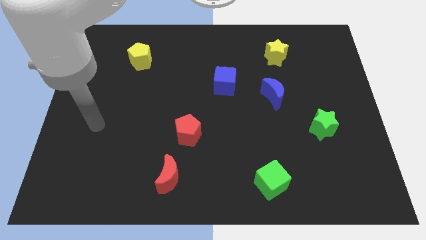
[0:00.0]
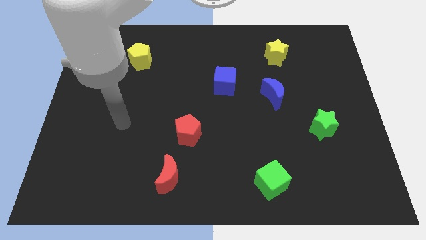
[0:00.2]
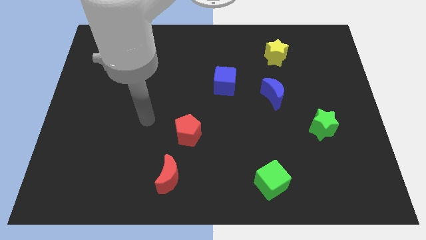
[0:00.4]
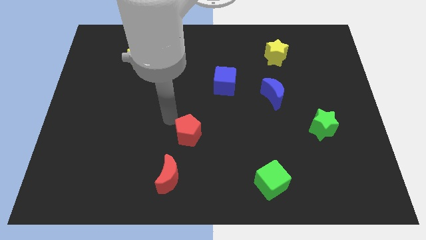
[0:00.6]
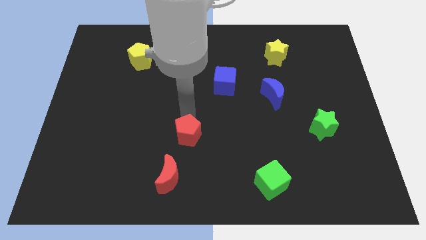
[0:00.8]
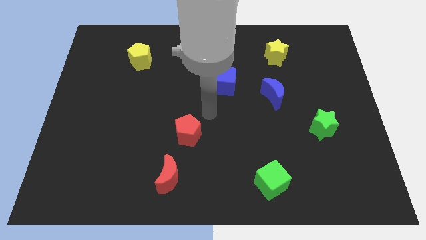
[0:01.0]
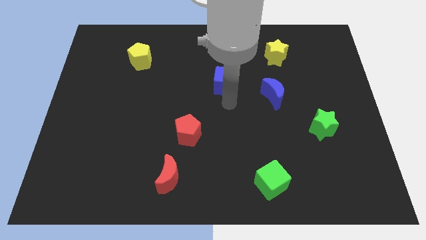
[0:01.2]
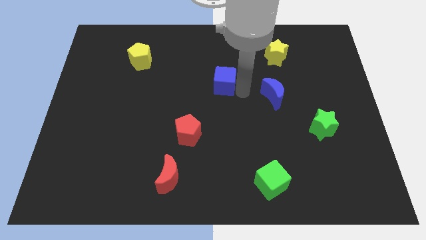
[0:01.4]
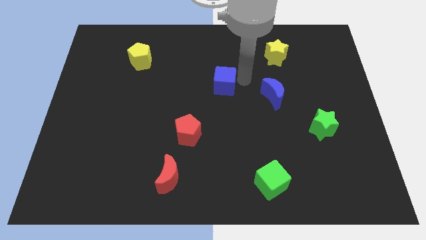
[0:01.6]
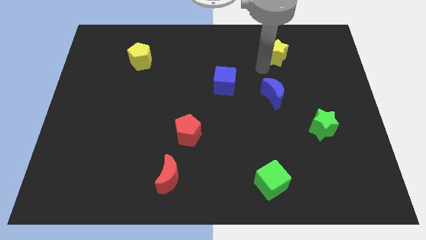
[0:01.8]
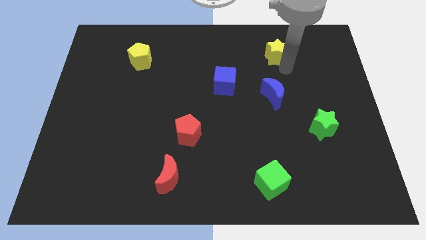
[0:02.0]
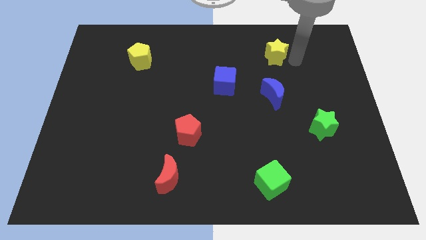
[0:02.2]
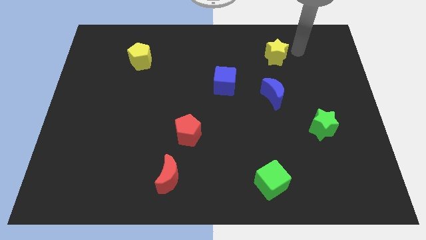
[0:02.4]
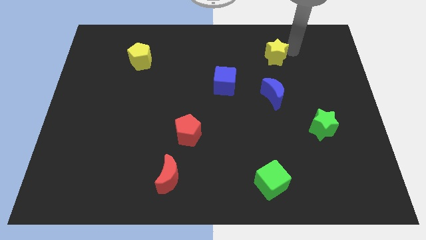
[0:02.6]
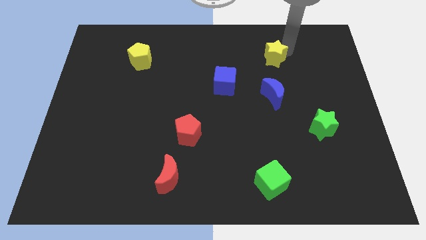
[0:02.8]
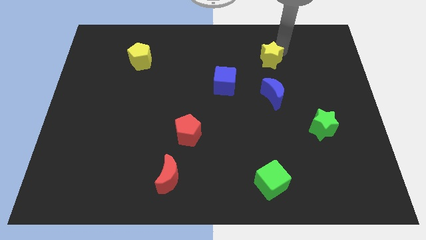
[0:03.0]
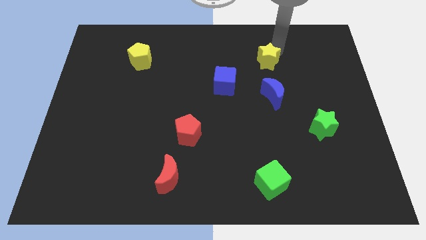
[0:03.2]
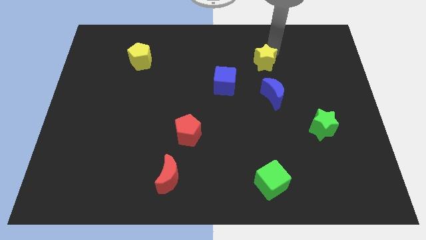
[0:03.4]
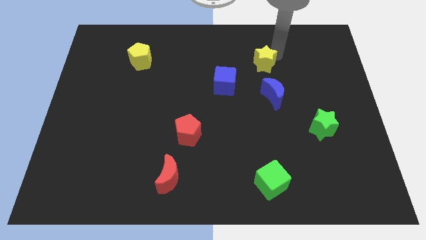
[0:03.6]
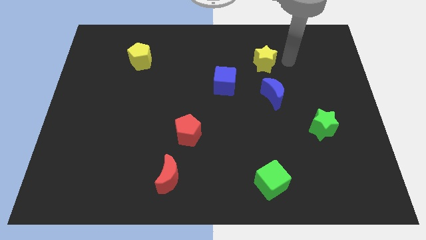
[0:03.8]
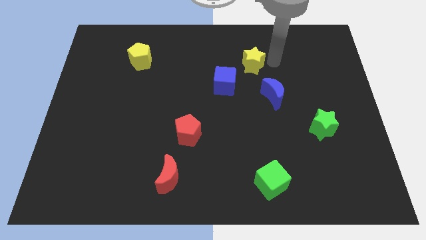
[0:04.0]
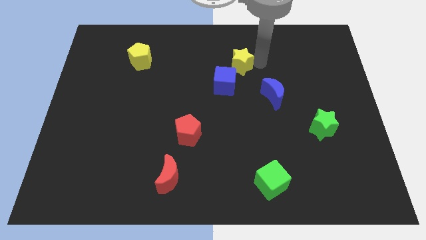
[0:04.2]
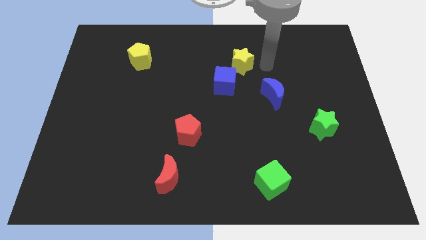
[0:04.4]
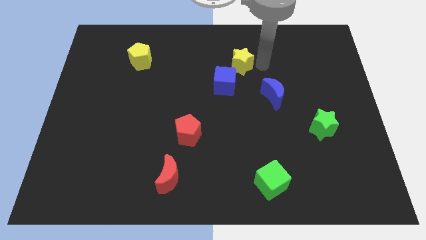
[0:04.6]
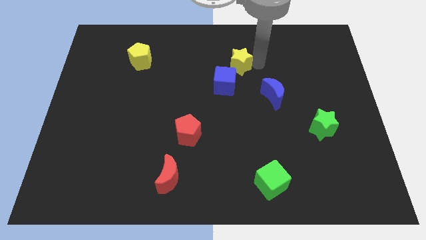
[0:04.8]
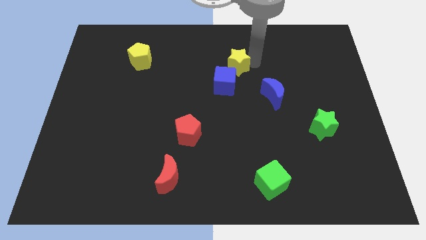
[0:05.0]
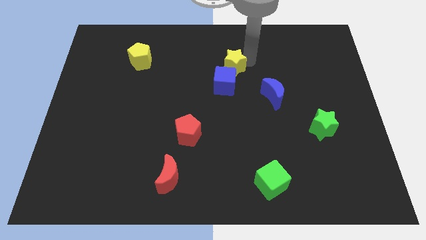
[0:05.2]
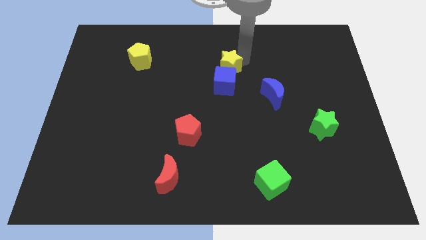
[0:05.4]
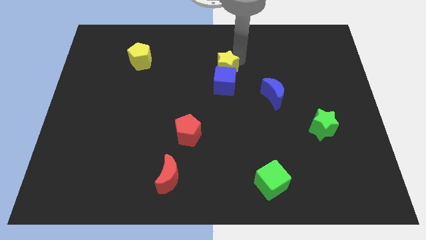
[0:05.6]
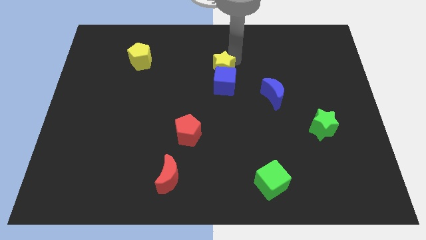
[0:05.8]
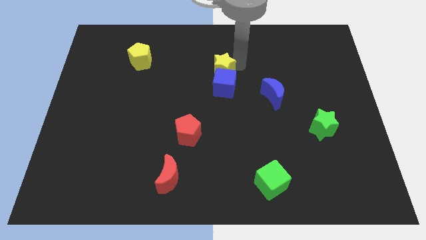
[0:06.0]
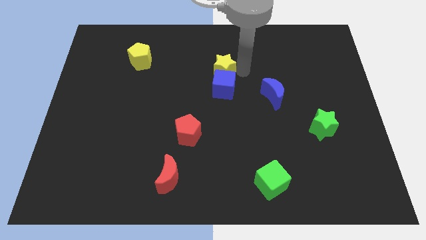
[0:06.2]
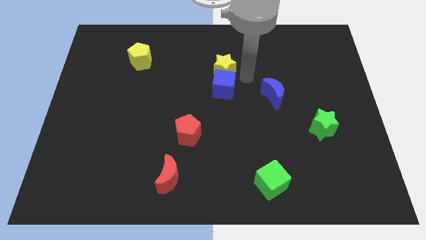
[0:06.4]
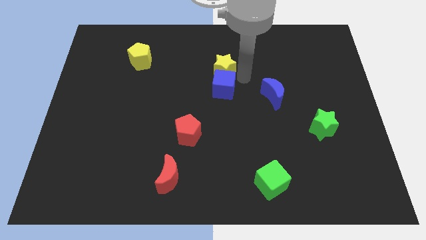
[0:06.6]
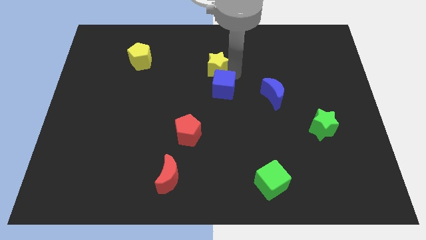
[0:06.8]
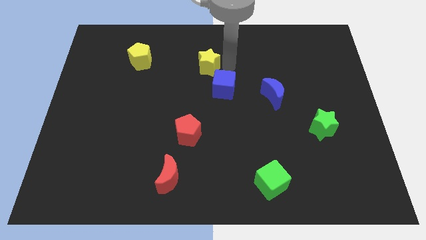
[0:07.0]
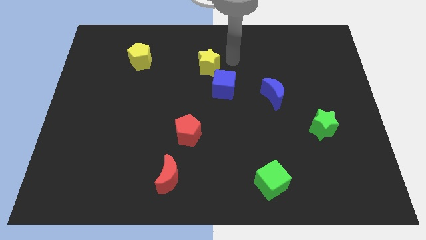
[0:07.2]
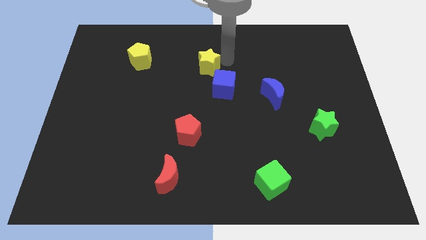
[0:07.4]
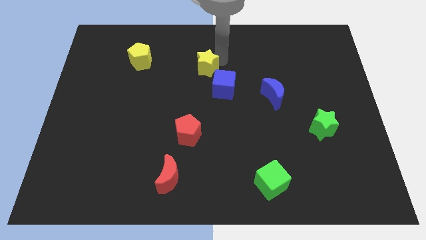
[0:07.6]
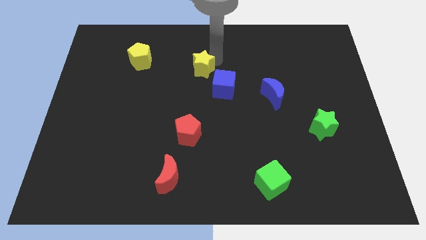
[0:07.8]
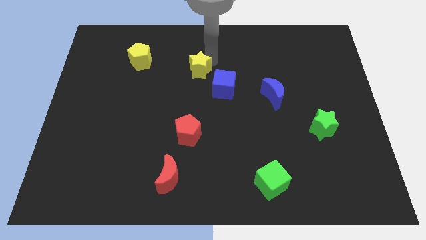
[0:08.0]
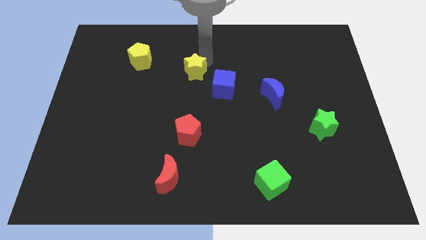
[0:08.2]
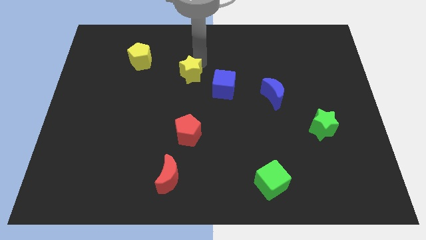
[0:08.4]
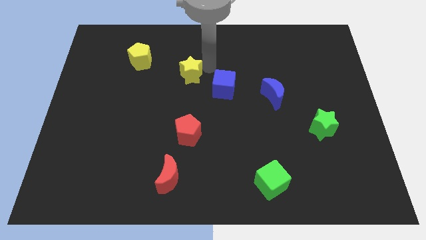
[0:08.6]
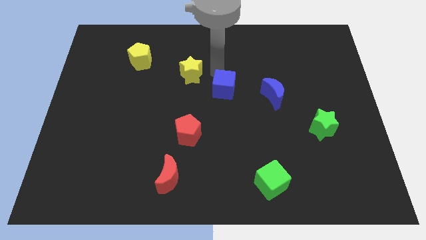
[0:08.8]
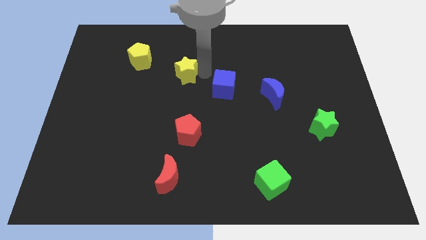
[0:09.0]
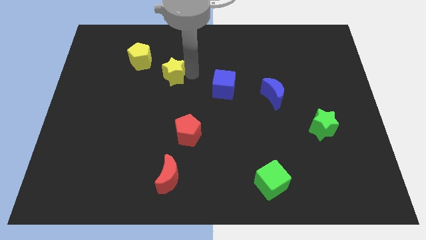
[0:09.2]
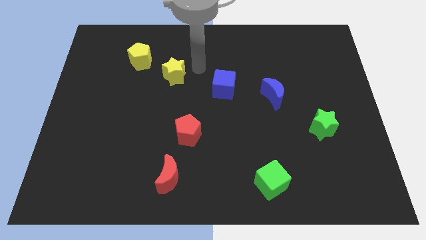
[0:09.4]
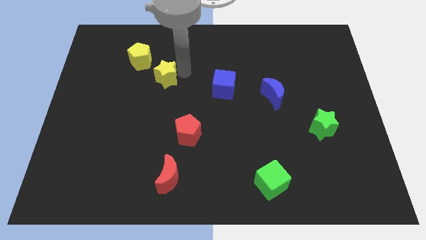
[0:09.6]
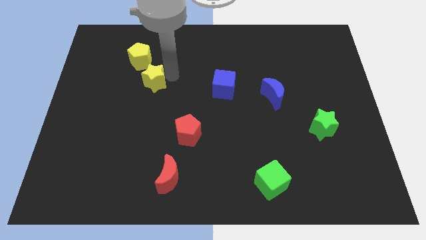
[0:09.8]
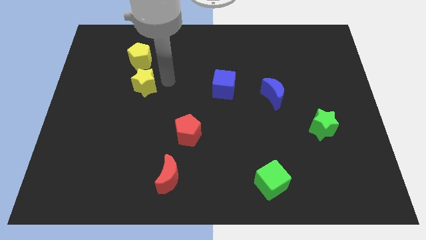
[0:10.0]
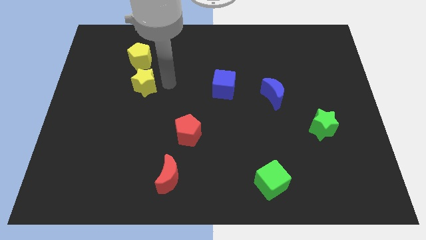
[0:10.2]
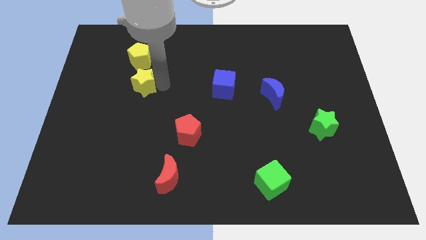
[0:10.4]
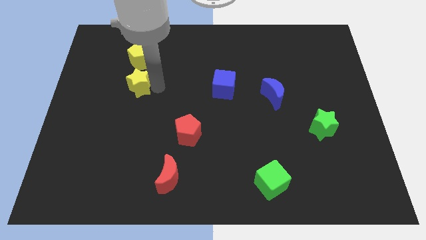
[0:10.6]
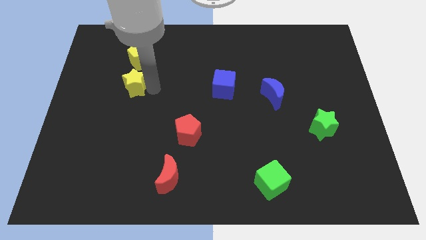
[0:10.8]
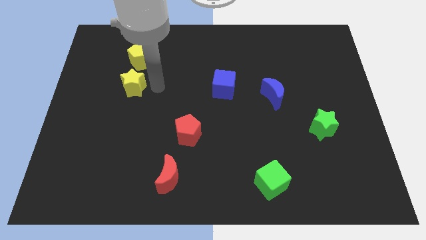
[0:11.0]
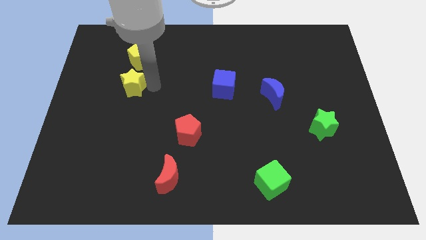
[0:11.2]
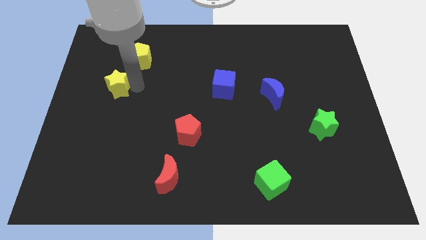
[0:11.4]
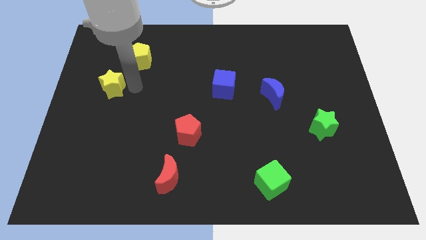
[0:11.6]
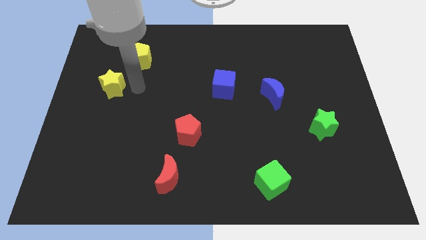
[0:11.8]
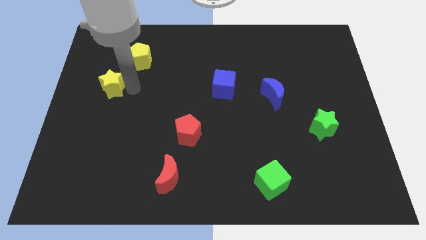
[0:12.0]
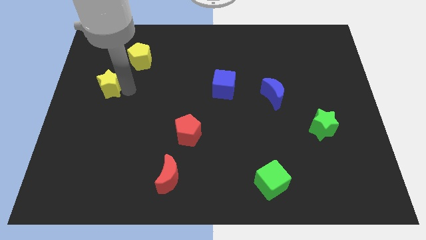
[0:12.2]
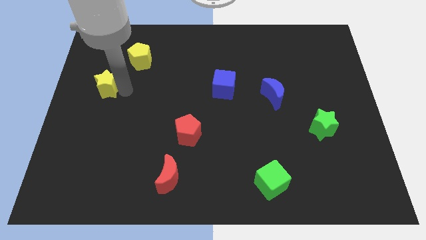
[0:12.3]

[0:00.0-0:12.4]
push the yellow star to the center left

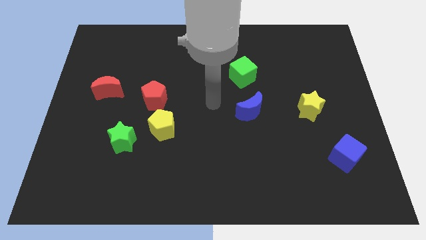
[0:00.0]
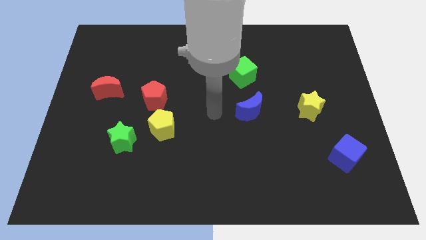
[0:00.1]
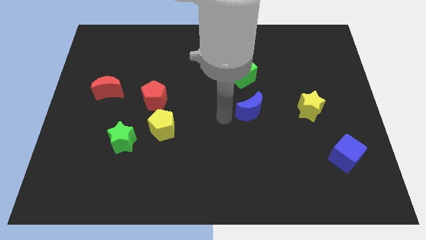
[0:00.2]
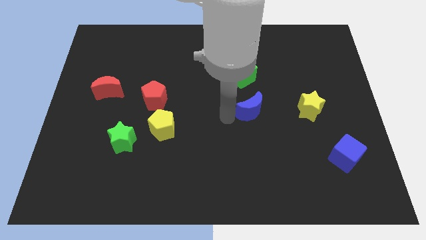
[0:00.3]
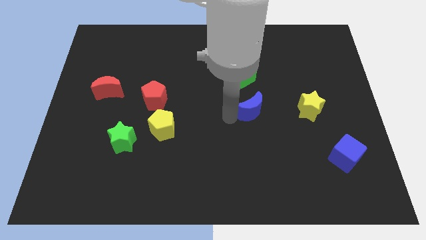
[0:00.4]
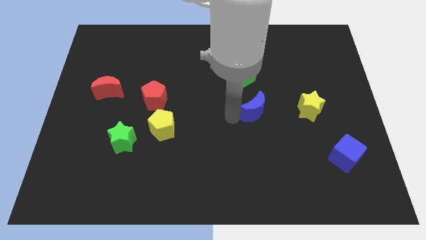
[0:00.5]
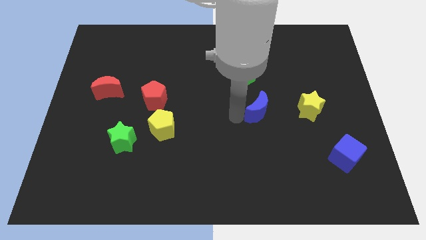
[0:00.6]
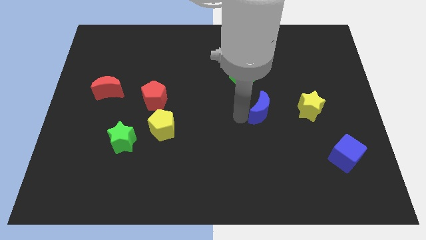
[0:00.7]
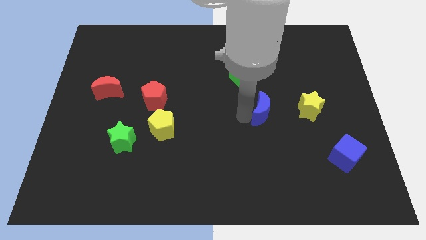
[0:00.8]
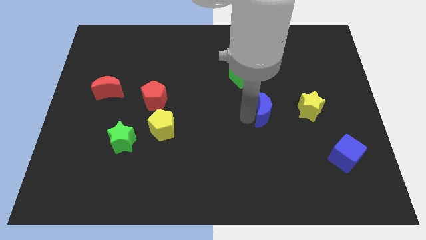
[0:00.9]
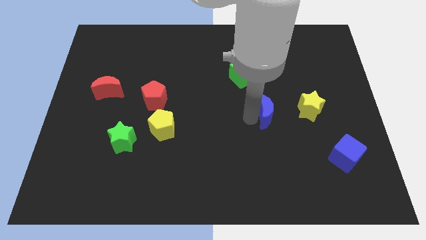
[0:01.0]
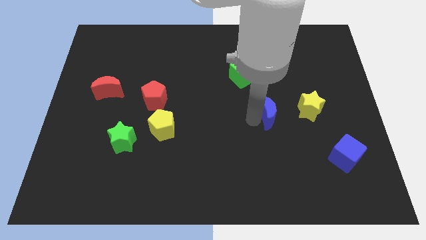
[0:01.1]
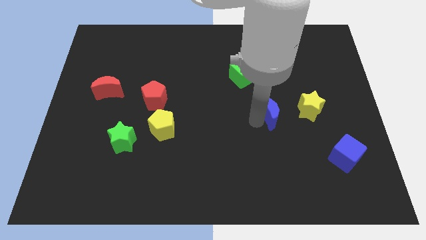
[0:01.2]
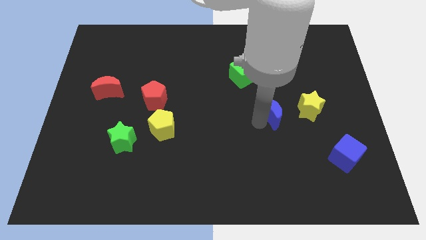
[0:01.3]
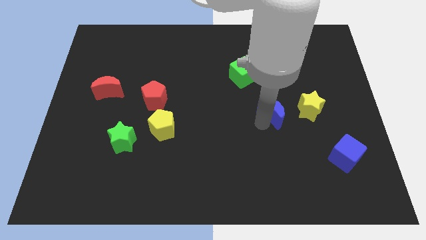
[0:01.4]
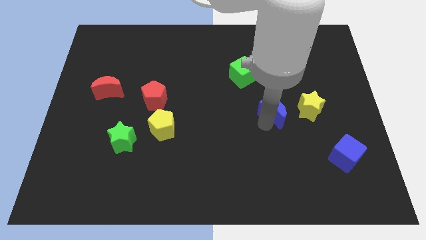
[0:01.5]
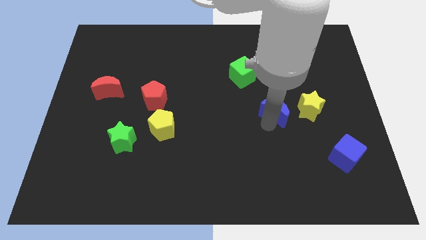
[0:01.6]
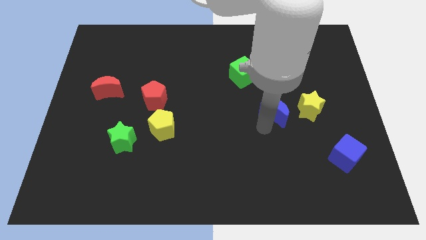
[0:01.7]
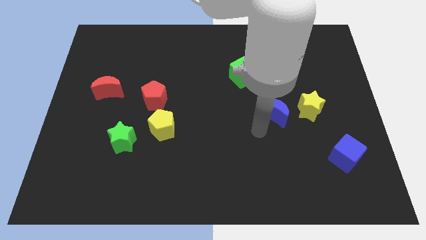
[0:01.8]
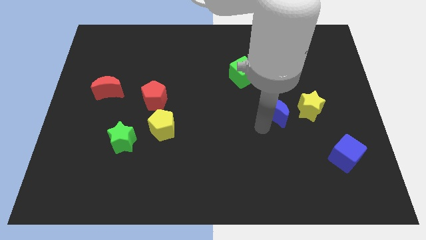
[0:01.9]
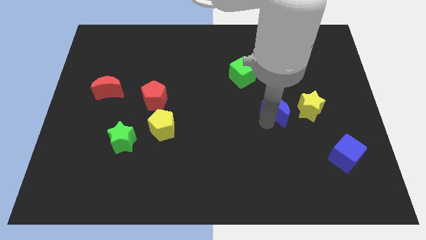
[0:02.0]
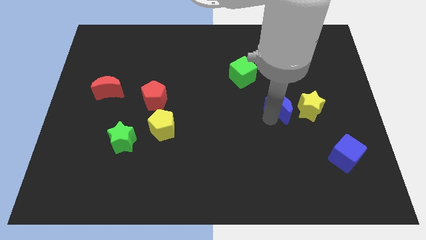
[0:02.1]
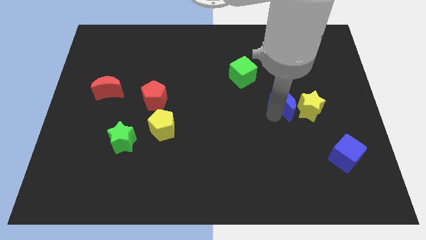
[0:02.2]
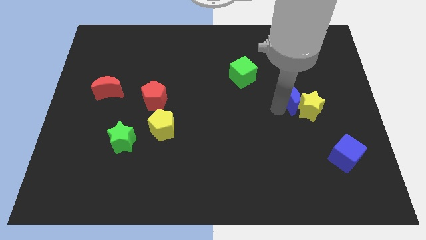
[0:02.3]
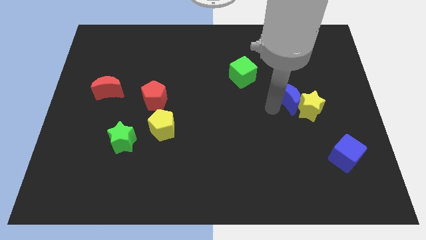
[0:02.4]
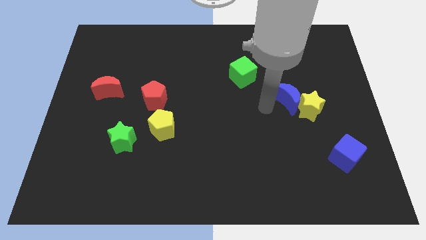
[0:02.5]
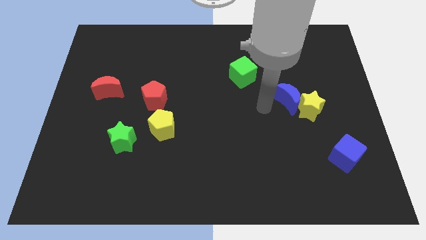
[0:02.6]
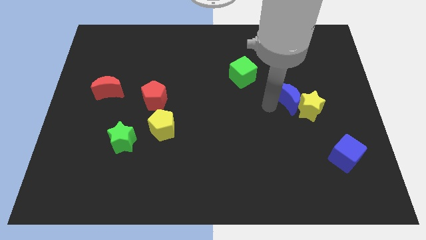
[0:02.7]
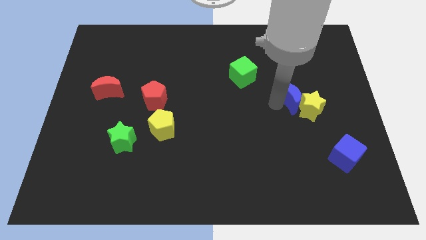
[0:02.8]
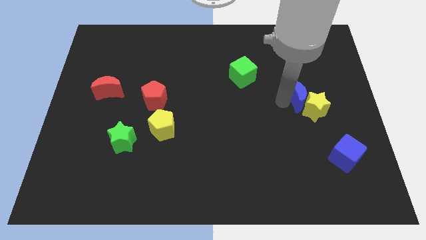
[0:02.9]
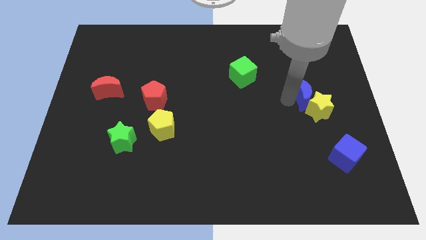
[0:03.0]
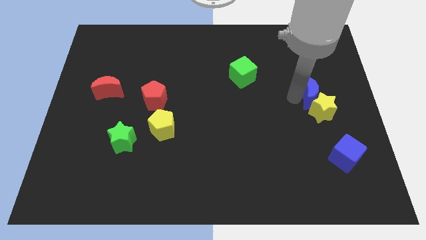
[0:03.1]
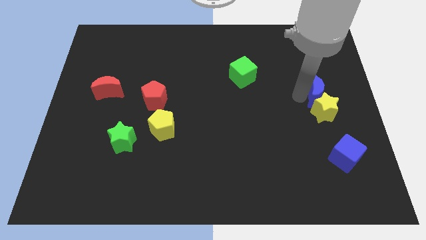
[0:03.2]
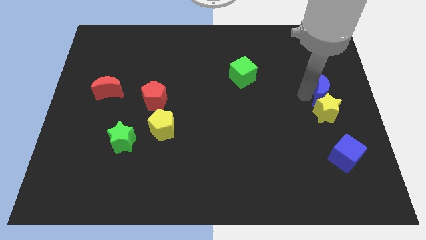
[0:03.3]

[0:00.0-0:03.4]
put the blue moon to the right side of the board
